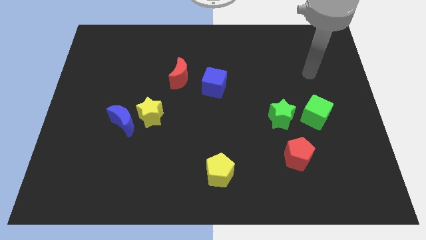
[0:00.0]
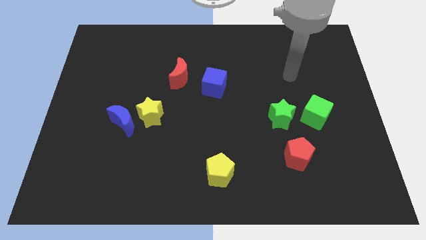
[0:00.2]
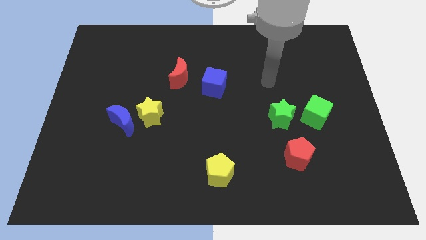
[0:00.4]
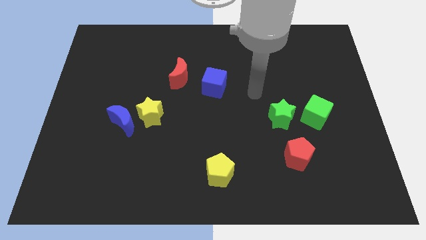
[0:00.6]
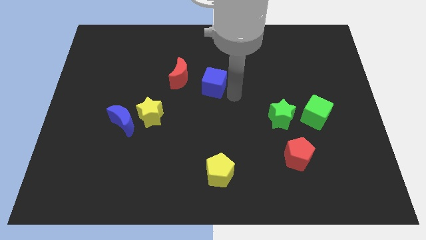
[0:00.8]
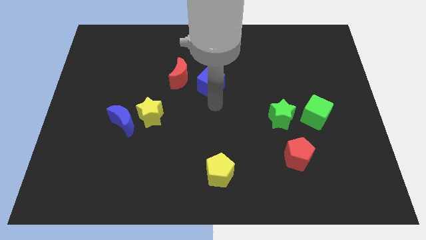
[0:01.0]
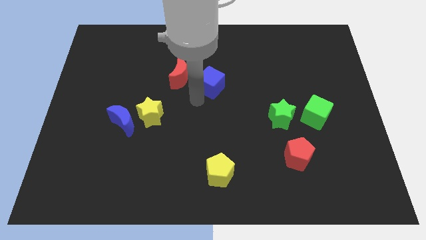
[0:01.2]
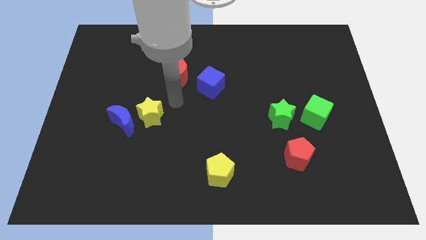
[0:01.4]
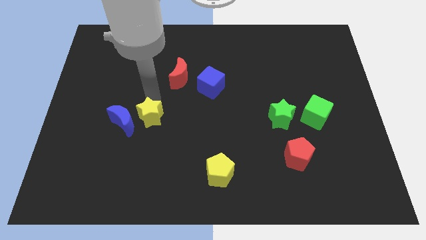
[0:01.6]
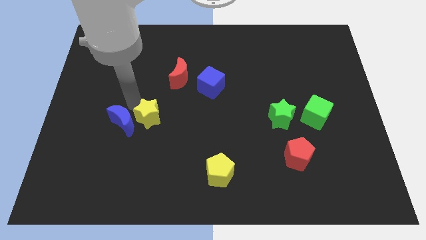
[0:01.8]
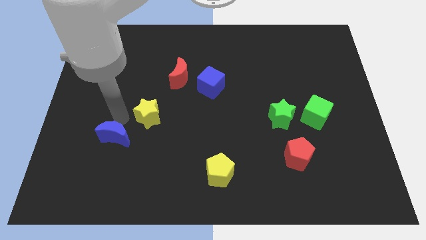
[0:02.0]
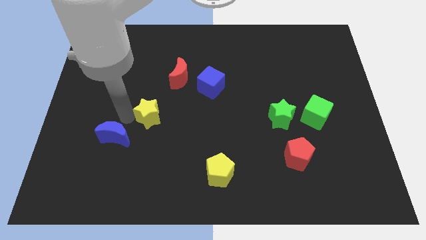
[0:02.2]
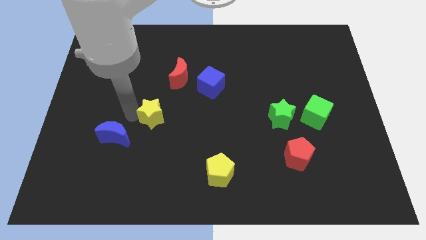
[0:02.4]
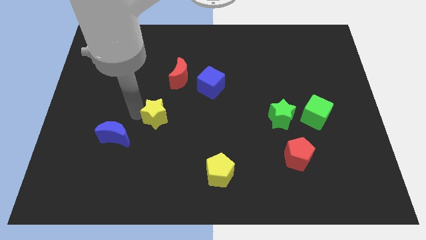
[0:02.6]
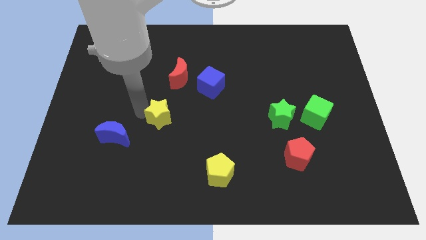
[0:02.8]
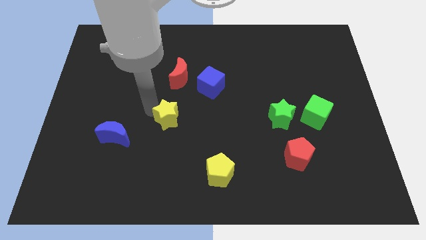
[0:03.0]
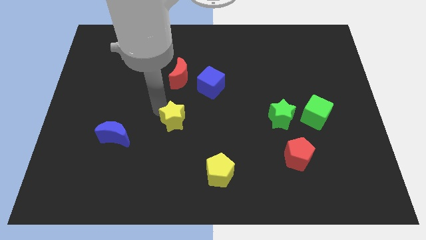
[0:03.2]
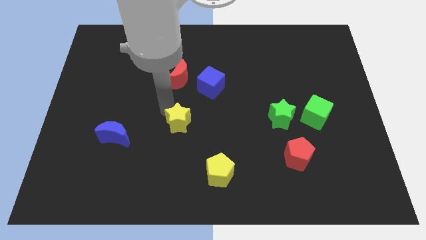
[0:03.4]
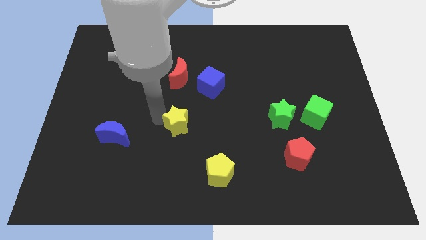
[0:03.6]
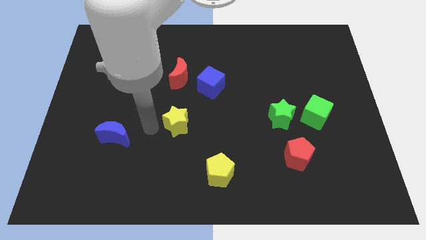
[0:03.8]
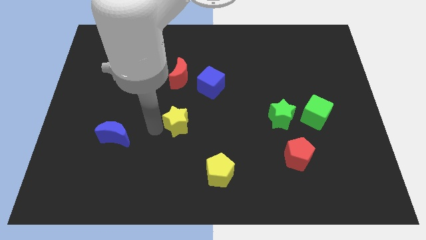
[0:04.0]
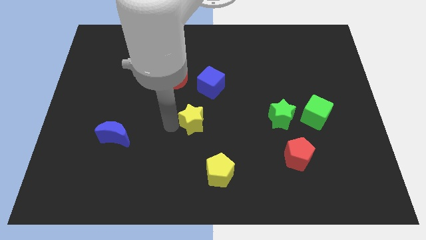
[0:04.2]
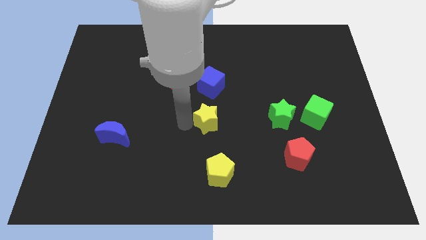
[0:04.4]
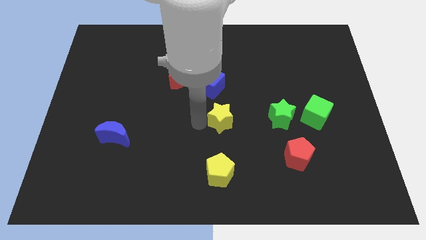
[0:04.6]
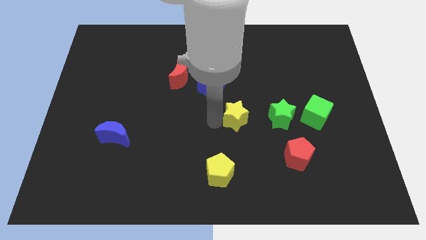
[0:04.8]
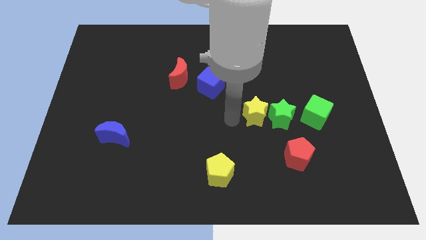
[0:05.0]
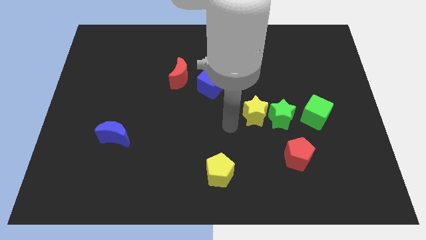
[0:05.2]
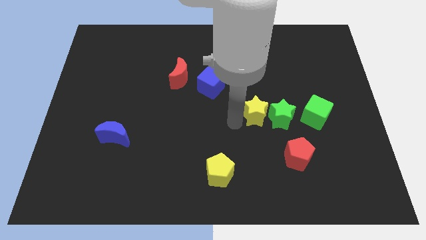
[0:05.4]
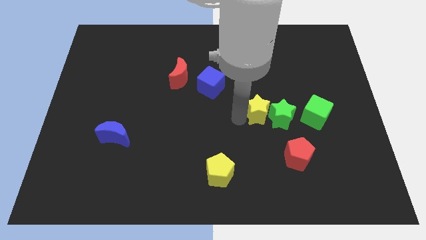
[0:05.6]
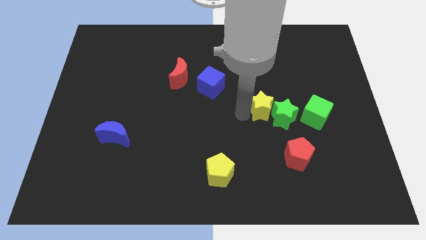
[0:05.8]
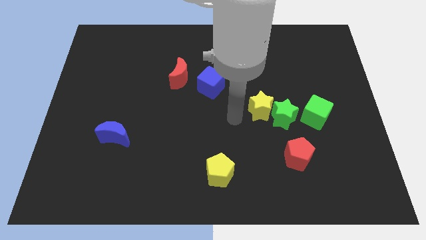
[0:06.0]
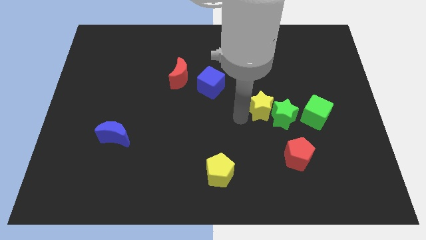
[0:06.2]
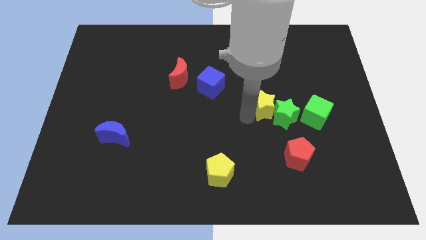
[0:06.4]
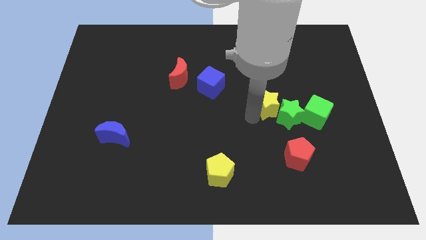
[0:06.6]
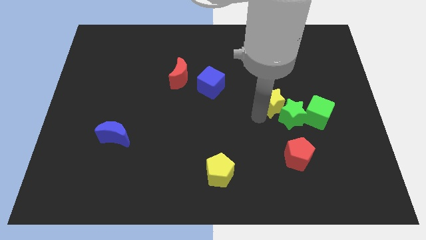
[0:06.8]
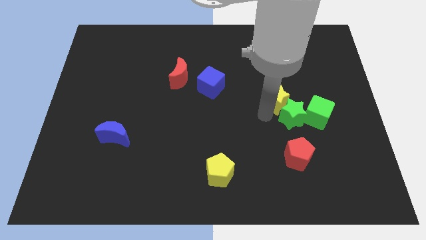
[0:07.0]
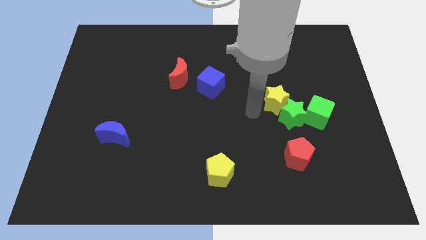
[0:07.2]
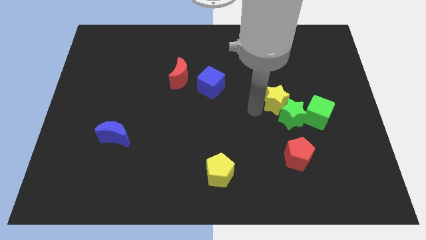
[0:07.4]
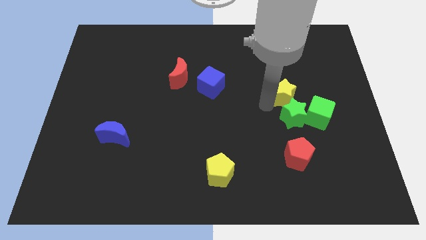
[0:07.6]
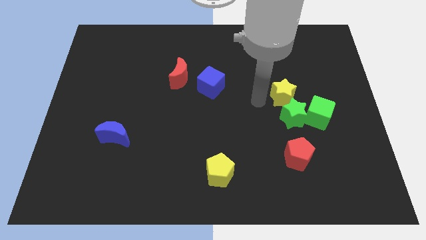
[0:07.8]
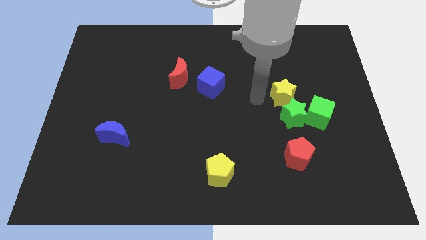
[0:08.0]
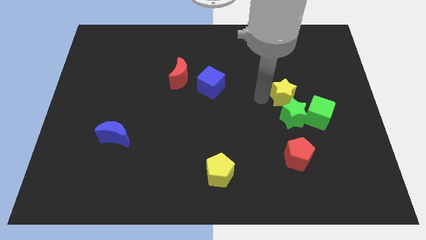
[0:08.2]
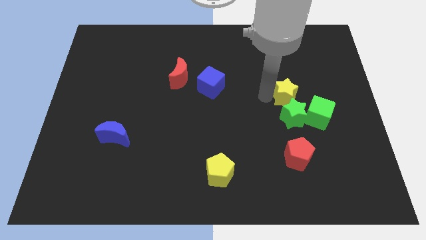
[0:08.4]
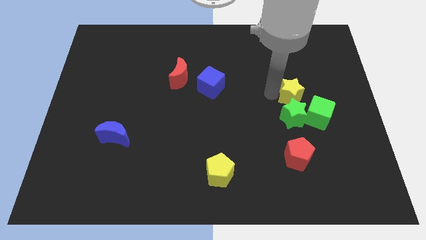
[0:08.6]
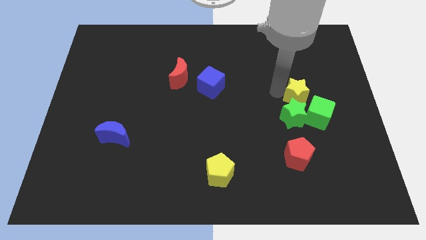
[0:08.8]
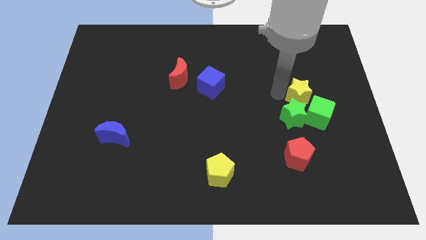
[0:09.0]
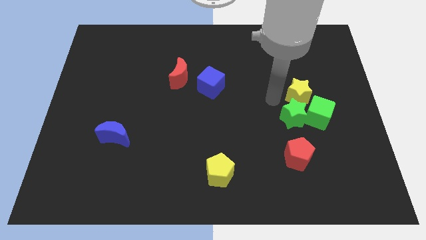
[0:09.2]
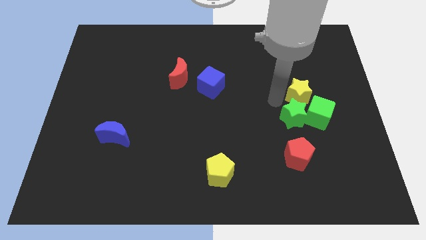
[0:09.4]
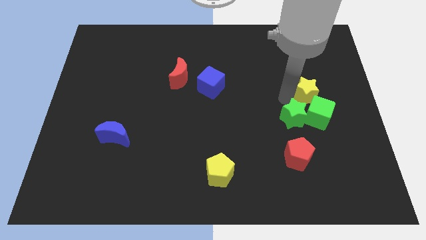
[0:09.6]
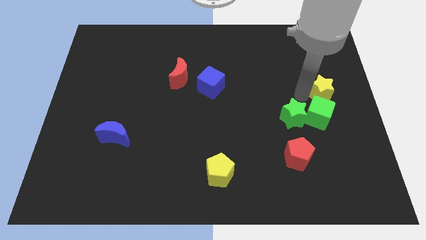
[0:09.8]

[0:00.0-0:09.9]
move the yellow star to the center right
